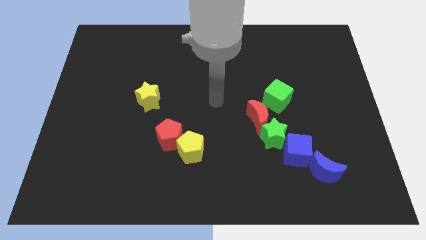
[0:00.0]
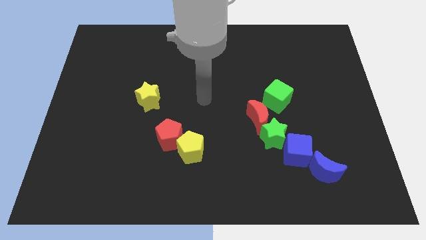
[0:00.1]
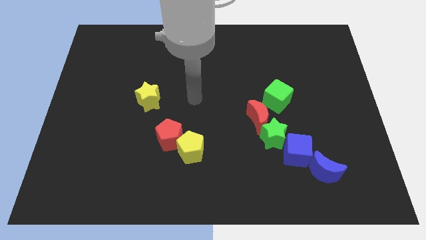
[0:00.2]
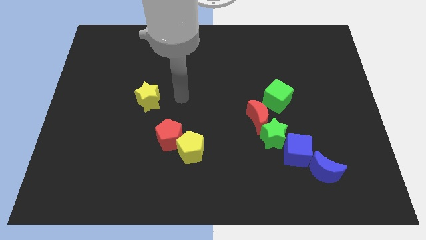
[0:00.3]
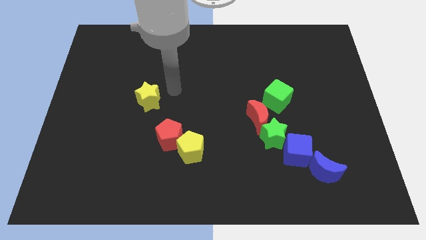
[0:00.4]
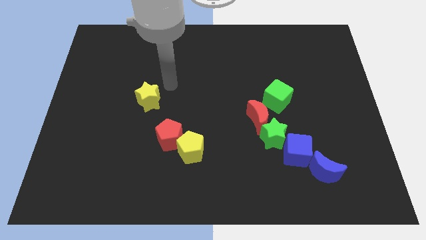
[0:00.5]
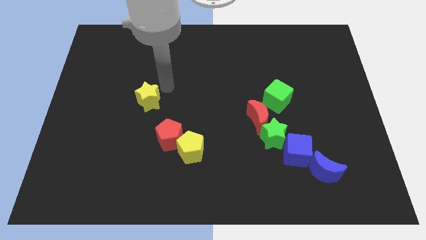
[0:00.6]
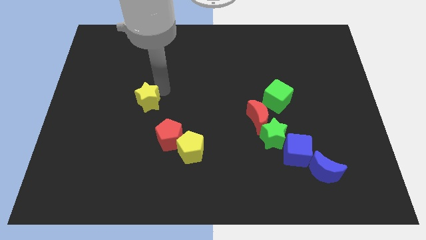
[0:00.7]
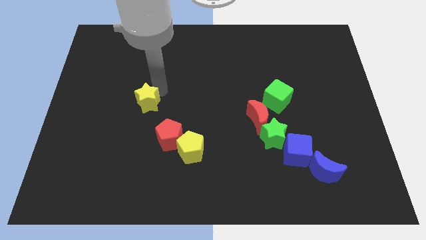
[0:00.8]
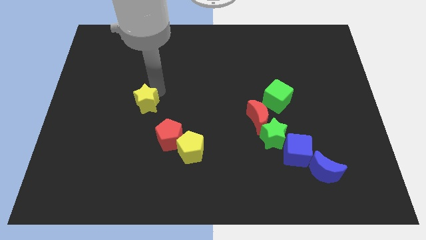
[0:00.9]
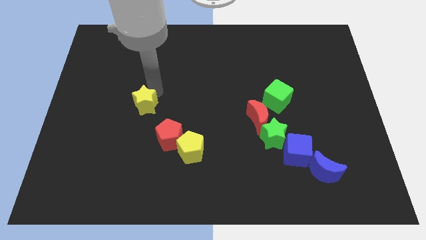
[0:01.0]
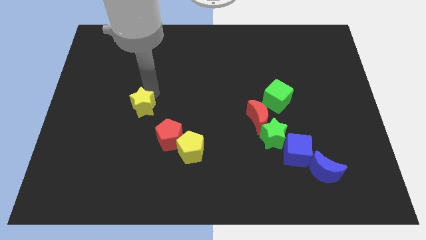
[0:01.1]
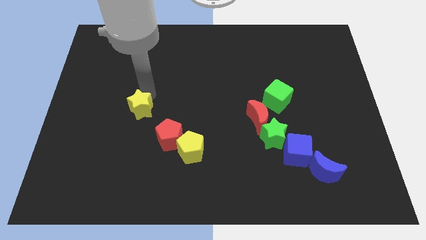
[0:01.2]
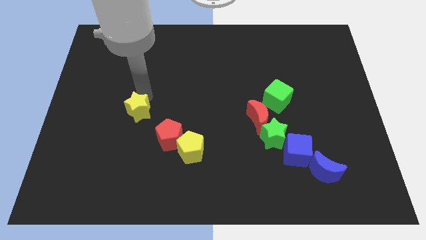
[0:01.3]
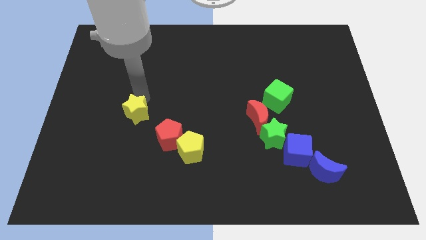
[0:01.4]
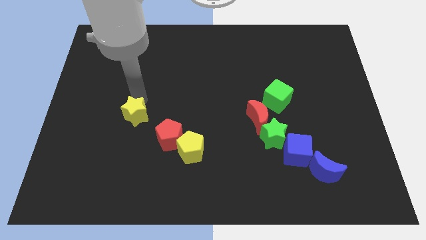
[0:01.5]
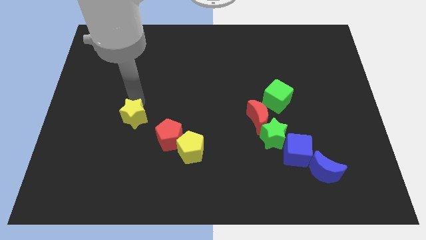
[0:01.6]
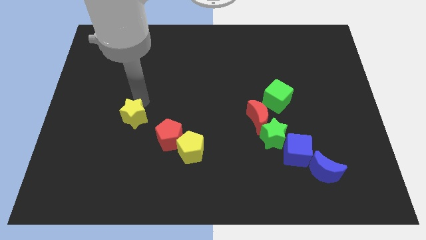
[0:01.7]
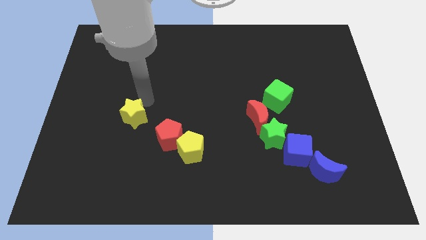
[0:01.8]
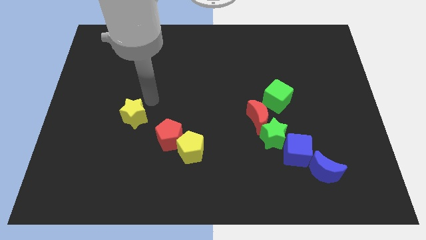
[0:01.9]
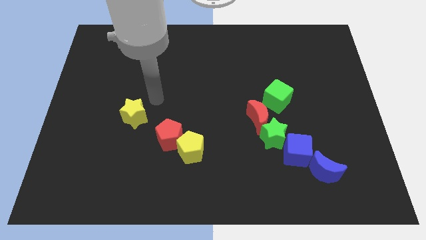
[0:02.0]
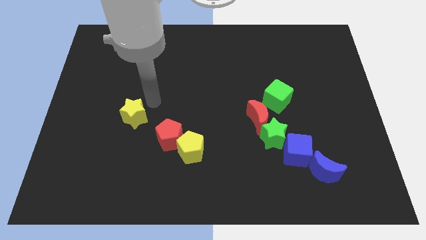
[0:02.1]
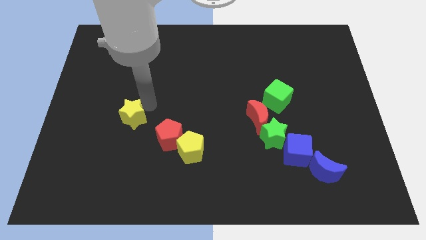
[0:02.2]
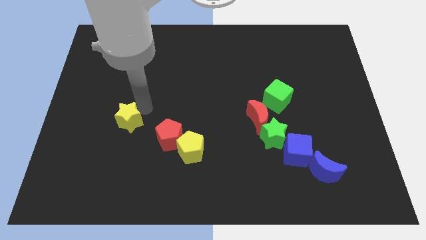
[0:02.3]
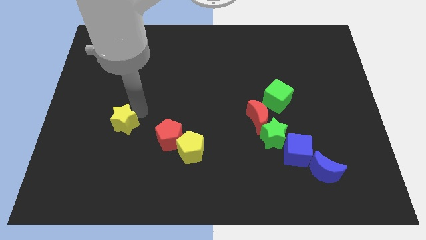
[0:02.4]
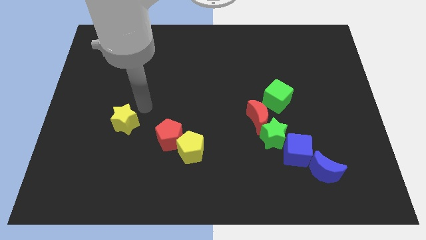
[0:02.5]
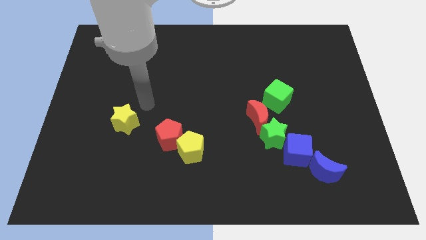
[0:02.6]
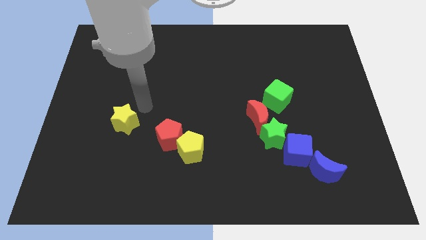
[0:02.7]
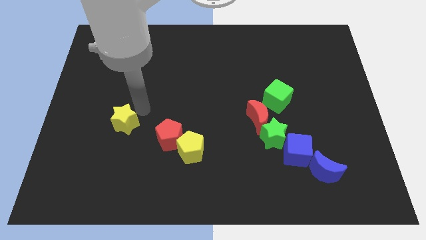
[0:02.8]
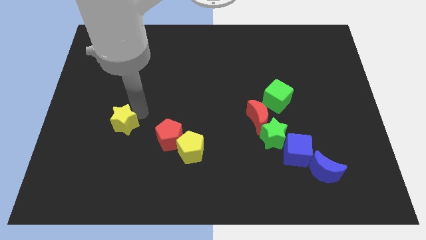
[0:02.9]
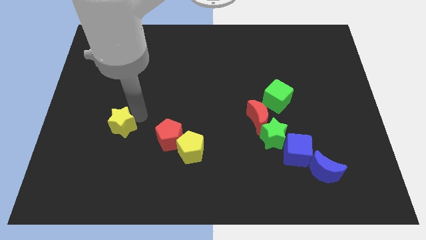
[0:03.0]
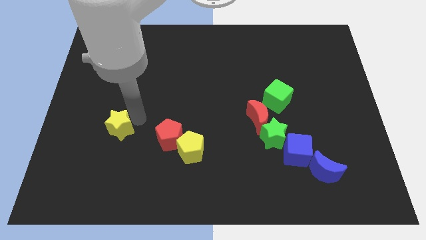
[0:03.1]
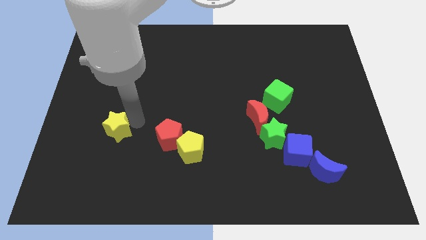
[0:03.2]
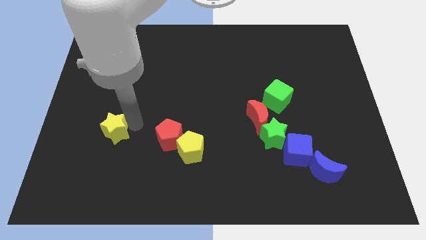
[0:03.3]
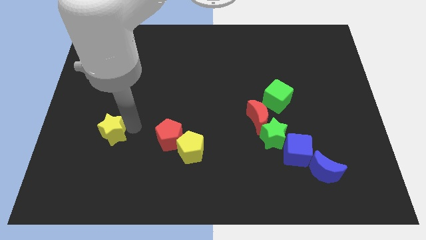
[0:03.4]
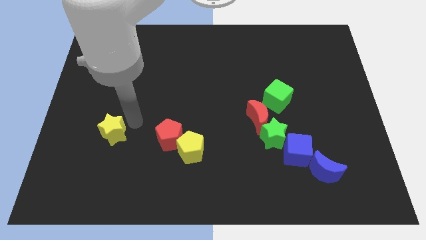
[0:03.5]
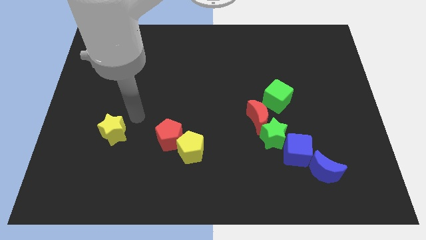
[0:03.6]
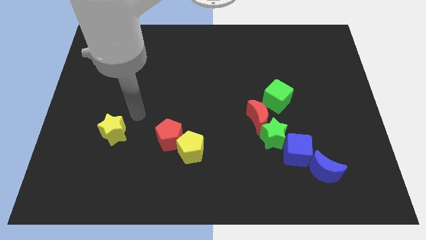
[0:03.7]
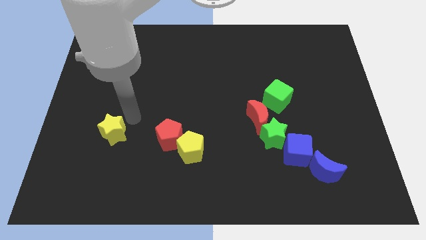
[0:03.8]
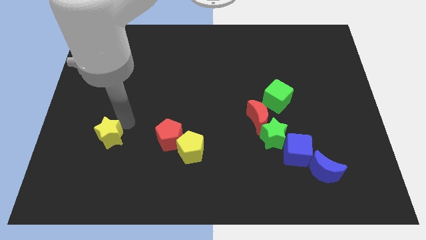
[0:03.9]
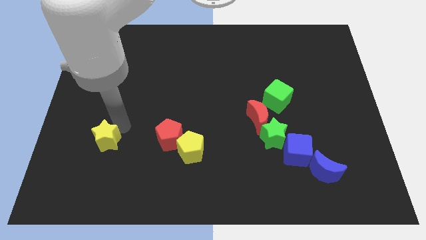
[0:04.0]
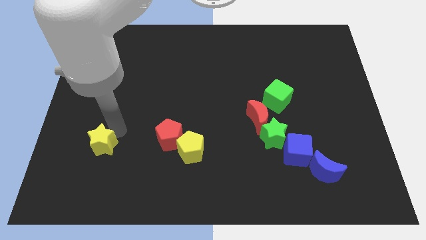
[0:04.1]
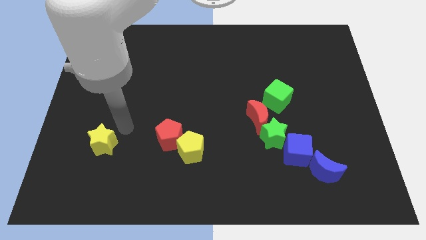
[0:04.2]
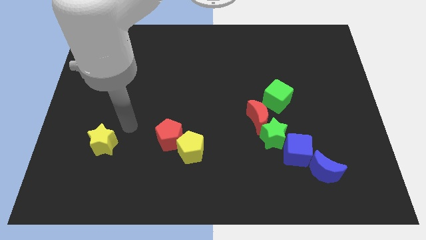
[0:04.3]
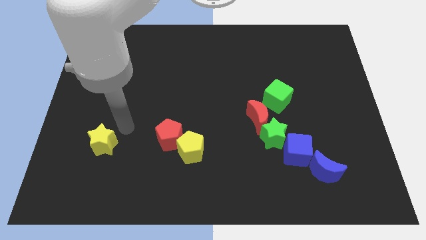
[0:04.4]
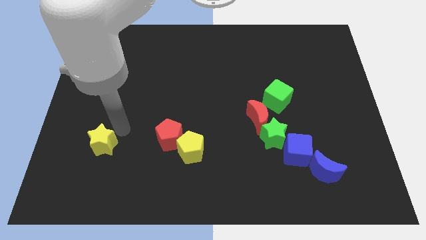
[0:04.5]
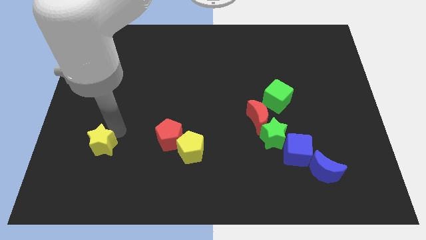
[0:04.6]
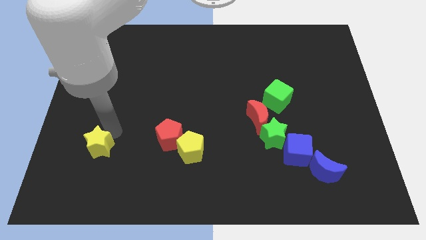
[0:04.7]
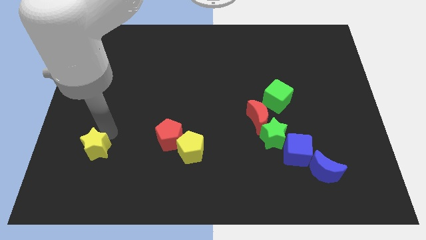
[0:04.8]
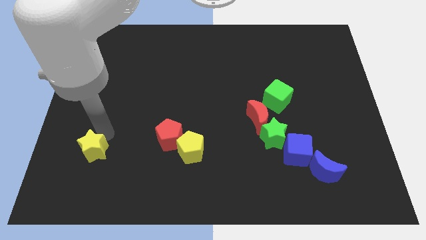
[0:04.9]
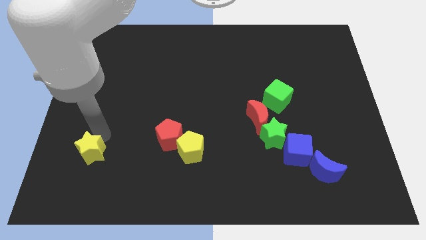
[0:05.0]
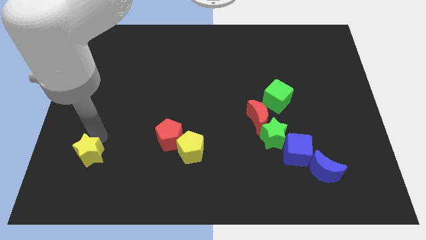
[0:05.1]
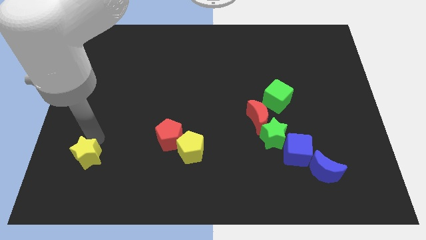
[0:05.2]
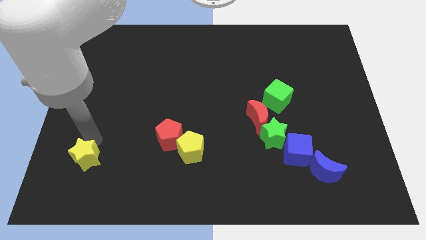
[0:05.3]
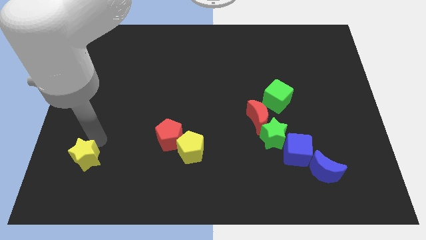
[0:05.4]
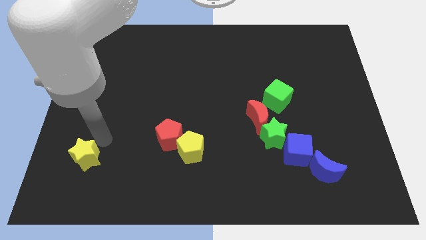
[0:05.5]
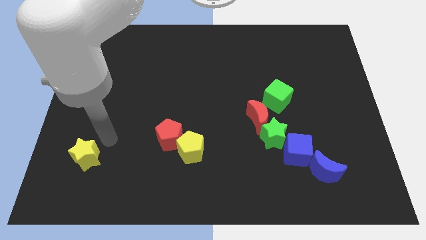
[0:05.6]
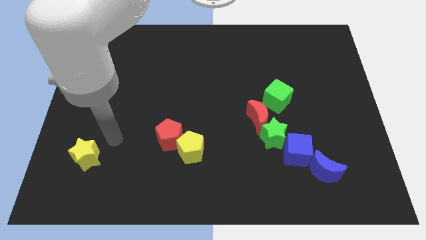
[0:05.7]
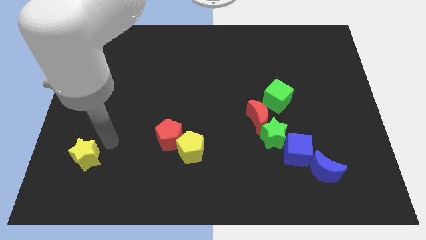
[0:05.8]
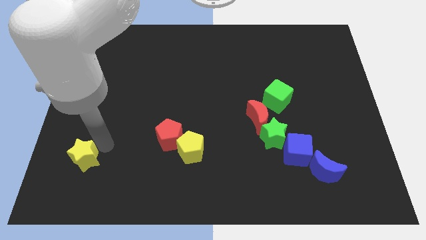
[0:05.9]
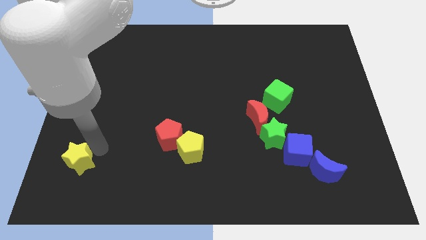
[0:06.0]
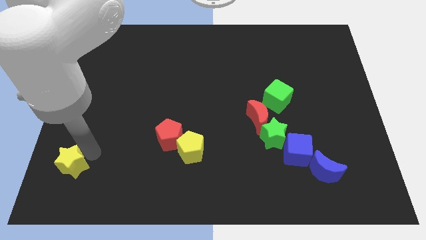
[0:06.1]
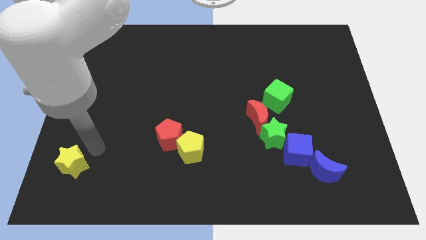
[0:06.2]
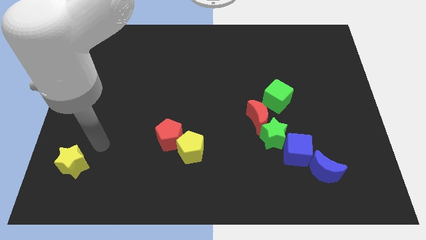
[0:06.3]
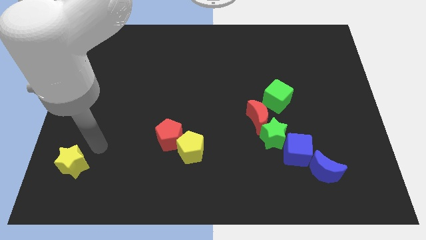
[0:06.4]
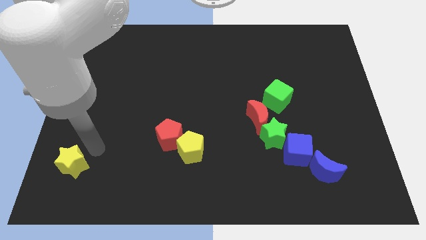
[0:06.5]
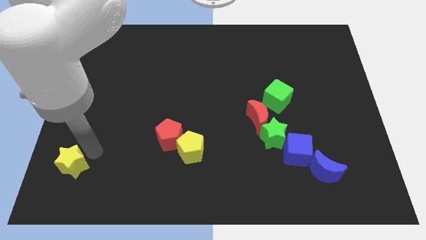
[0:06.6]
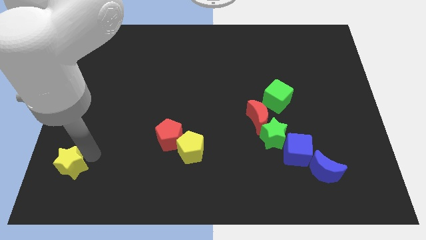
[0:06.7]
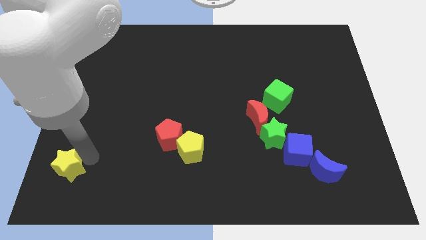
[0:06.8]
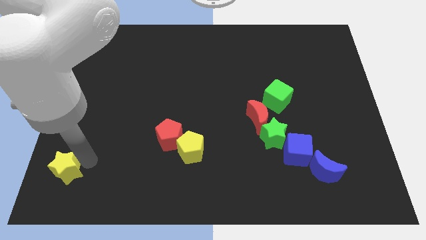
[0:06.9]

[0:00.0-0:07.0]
put the yellow star to the bottom left of the board
